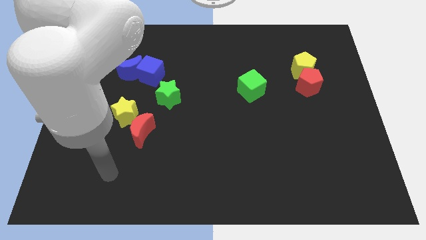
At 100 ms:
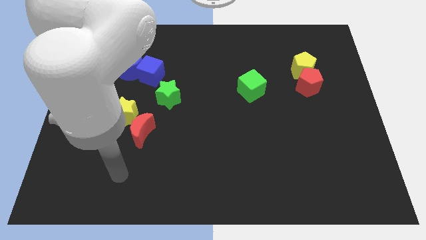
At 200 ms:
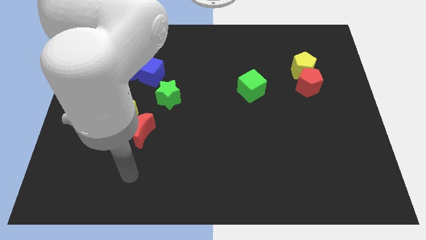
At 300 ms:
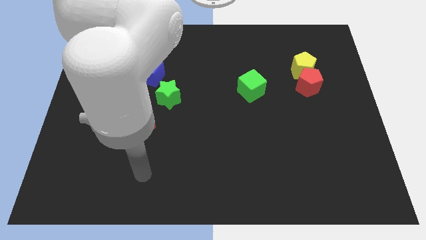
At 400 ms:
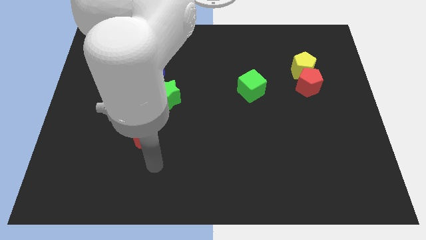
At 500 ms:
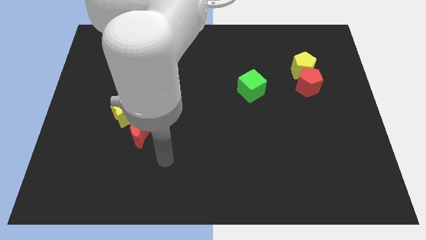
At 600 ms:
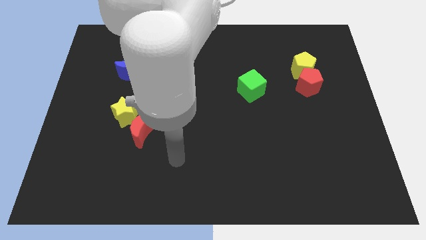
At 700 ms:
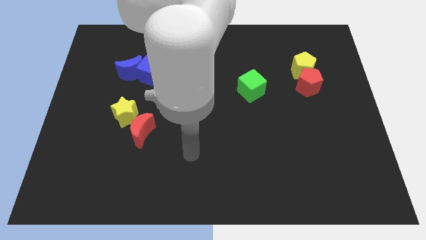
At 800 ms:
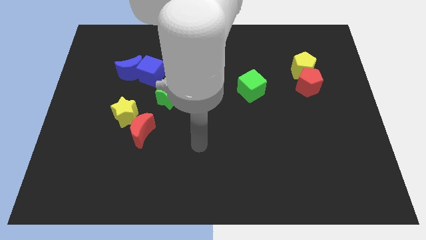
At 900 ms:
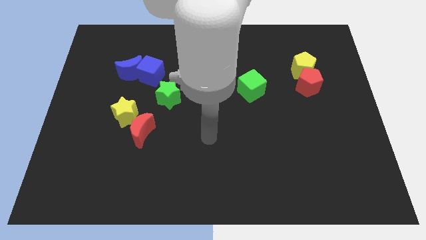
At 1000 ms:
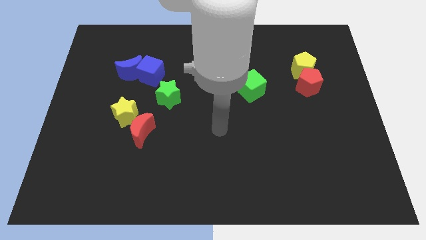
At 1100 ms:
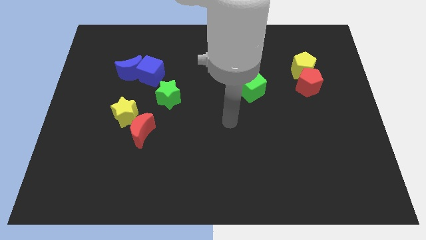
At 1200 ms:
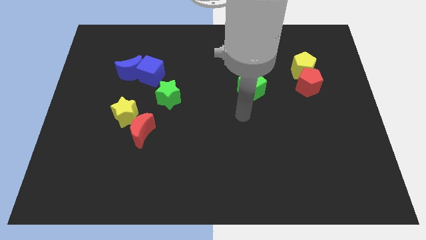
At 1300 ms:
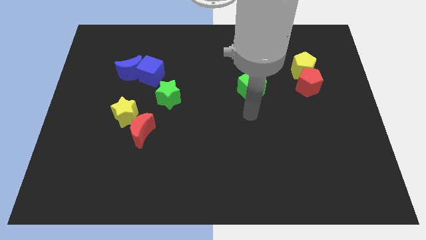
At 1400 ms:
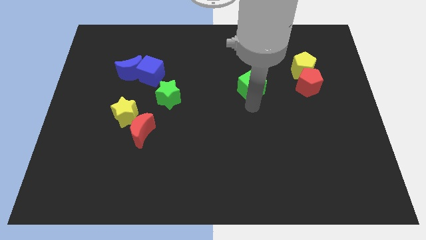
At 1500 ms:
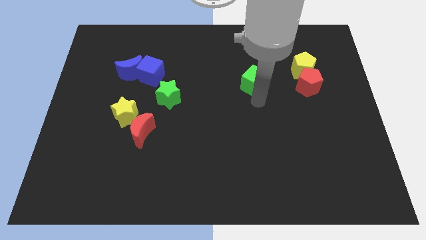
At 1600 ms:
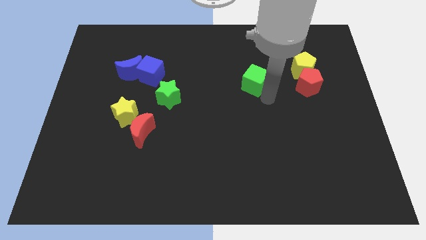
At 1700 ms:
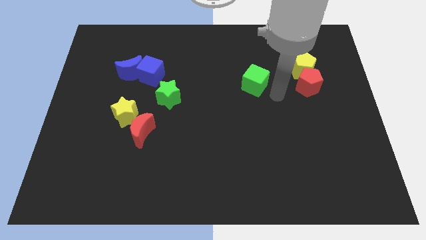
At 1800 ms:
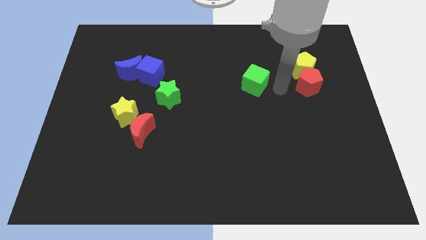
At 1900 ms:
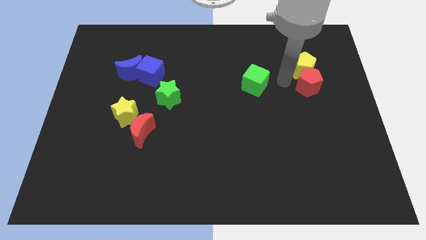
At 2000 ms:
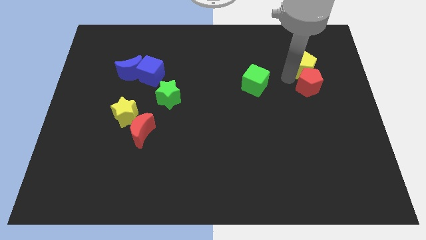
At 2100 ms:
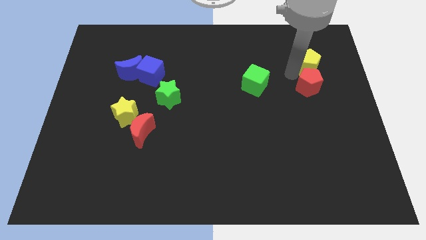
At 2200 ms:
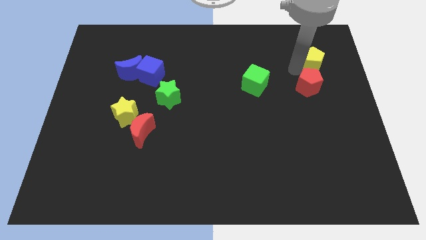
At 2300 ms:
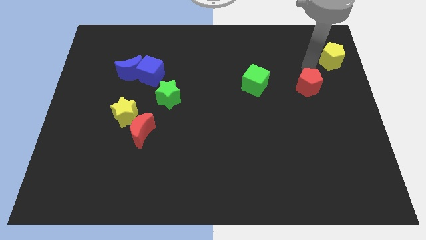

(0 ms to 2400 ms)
separate the red pentagon from the yellow pentagon

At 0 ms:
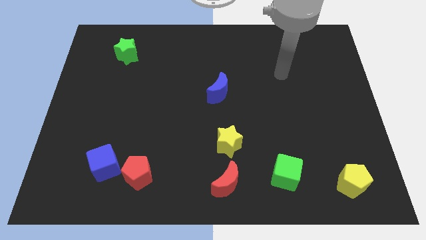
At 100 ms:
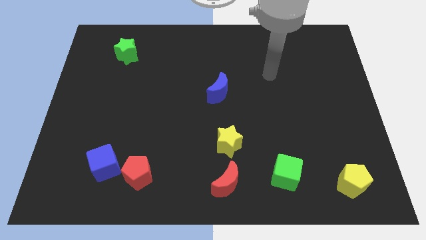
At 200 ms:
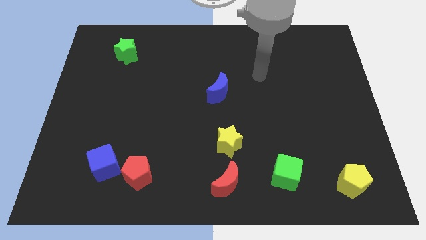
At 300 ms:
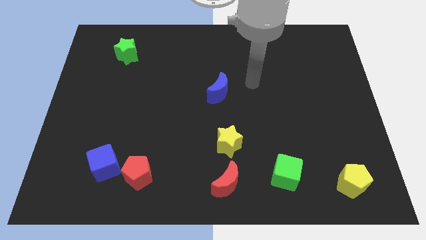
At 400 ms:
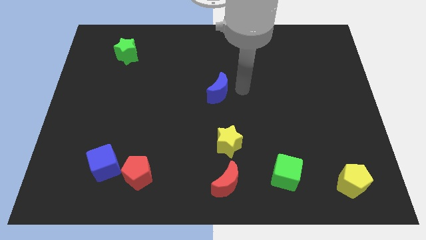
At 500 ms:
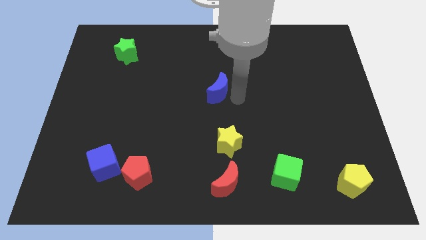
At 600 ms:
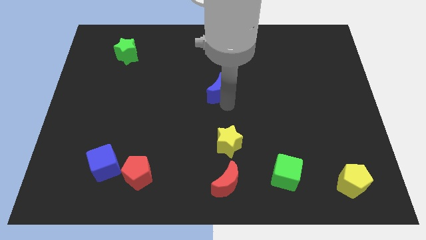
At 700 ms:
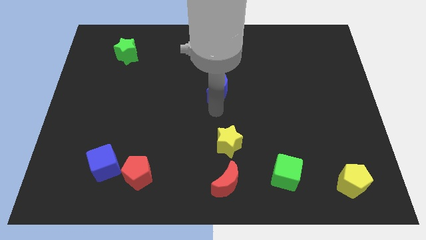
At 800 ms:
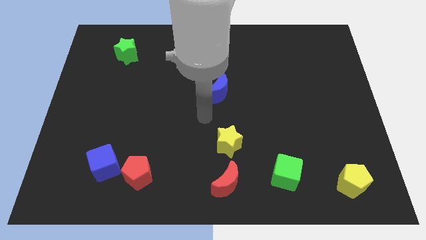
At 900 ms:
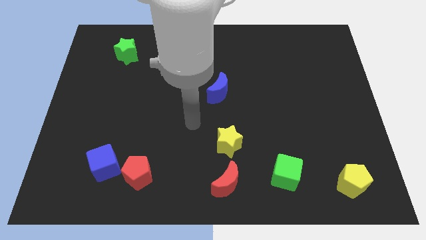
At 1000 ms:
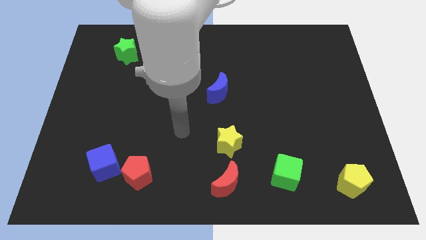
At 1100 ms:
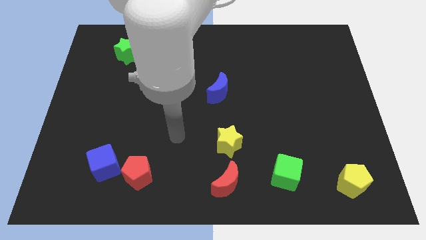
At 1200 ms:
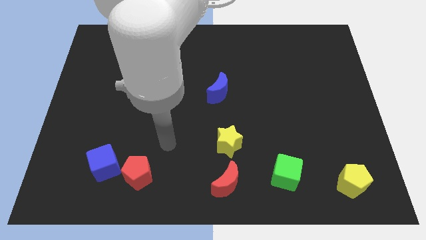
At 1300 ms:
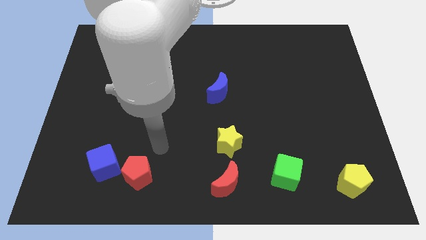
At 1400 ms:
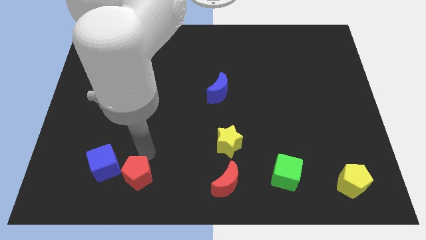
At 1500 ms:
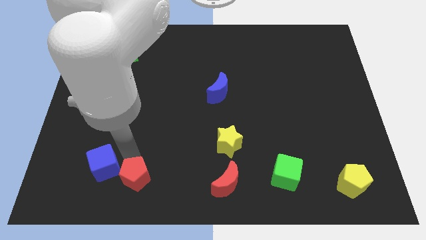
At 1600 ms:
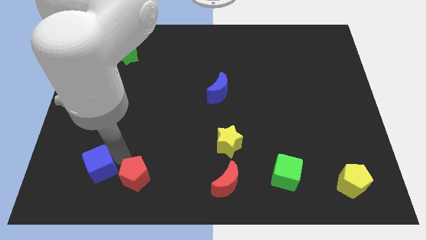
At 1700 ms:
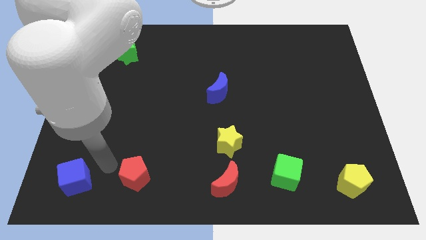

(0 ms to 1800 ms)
move the red pentagon away from the blue cube

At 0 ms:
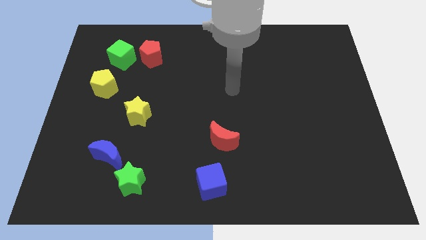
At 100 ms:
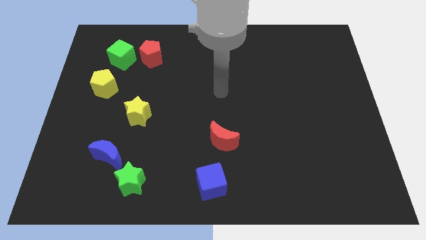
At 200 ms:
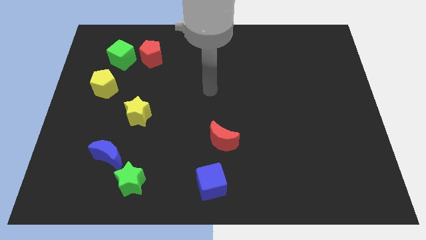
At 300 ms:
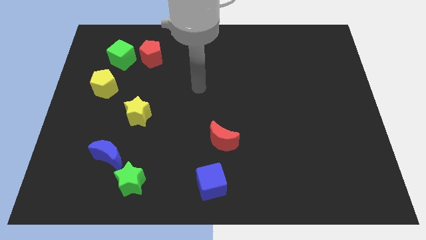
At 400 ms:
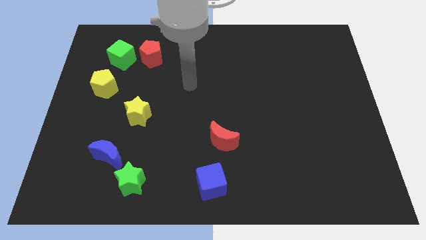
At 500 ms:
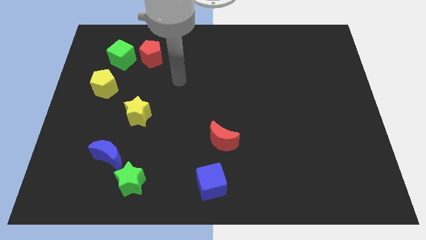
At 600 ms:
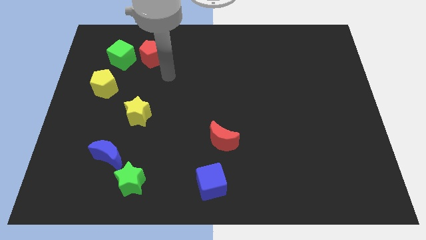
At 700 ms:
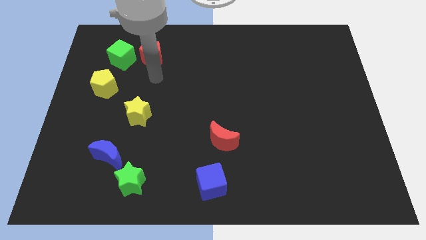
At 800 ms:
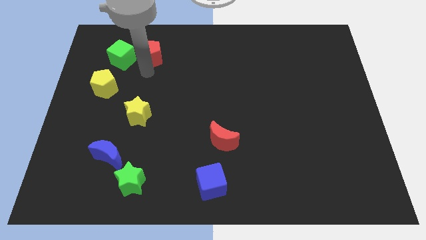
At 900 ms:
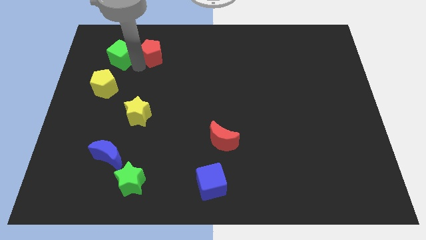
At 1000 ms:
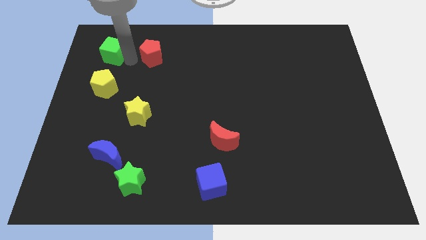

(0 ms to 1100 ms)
move the red pentagon away from the green cube

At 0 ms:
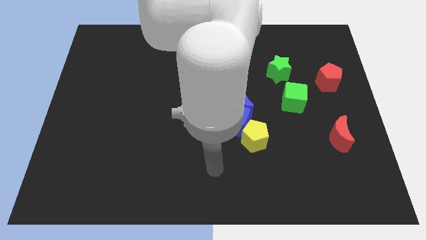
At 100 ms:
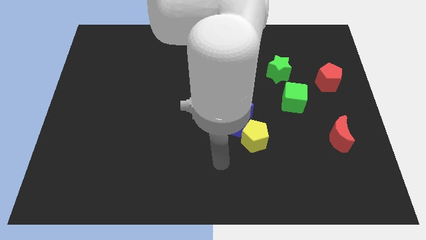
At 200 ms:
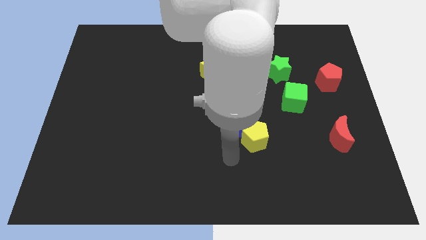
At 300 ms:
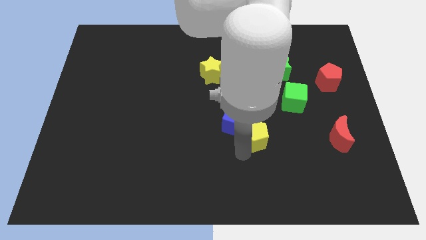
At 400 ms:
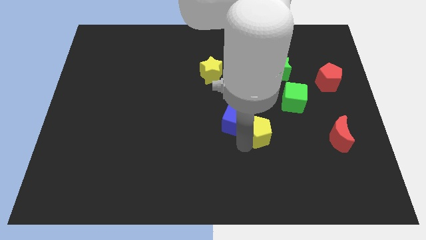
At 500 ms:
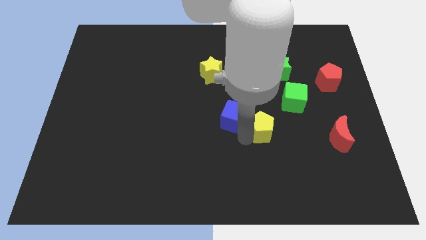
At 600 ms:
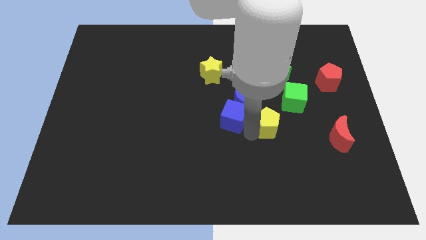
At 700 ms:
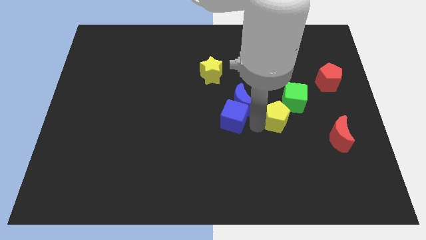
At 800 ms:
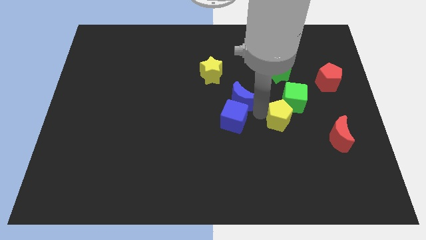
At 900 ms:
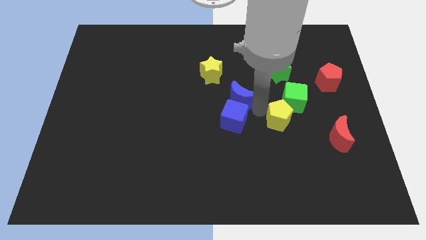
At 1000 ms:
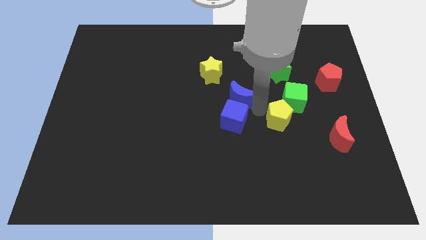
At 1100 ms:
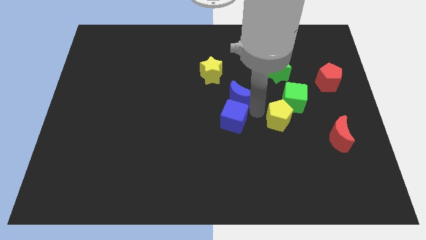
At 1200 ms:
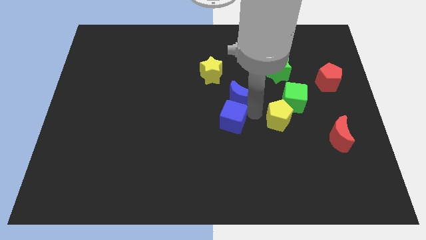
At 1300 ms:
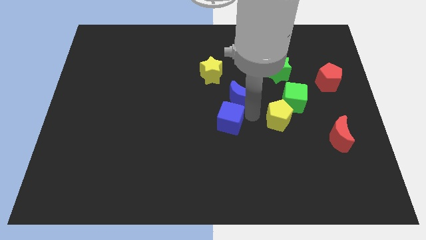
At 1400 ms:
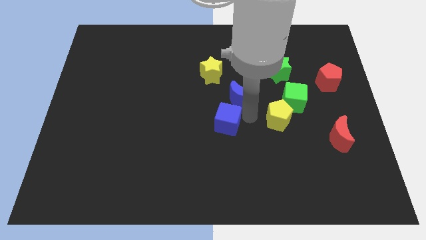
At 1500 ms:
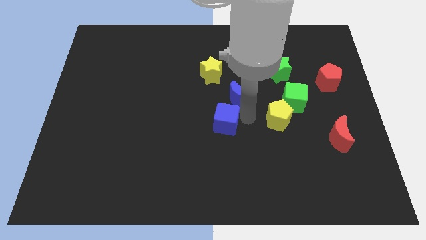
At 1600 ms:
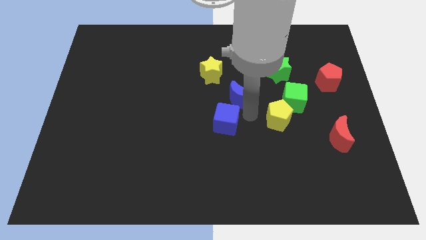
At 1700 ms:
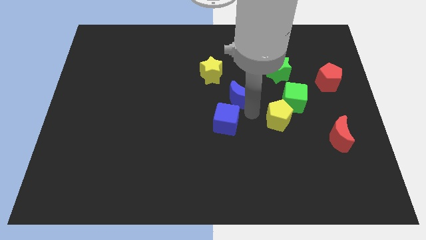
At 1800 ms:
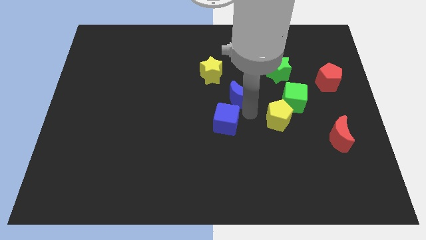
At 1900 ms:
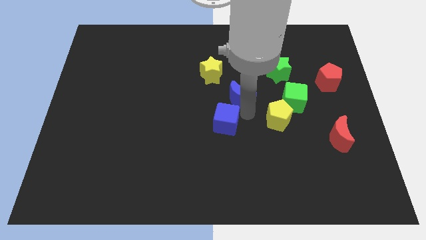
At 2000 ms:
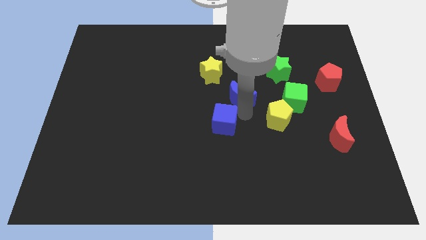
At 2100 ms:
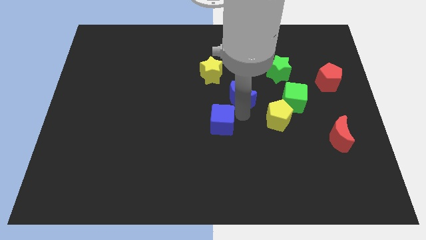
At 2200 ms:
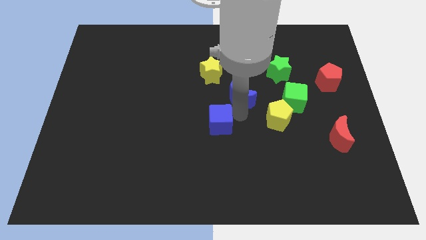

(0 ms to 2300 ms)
move the blue cube away from the blue moon and yellow pentagon

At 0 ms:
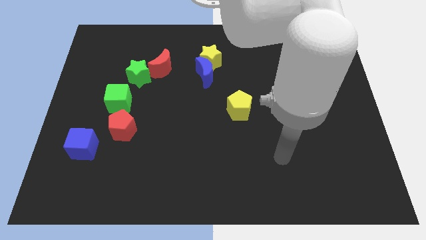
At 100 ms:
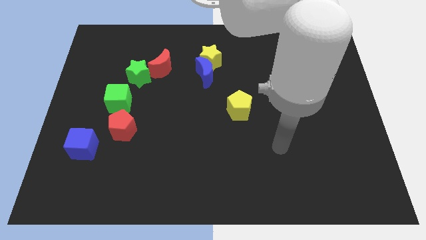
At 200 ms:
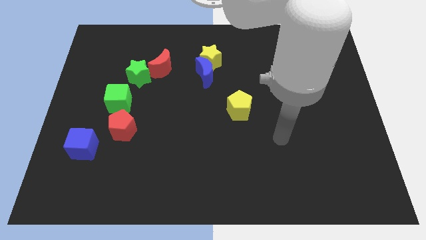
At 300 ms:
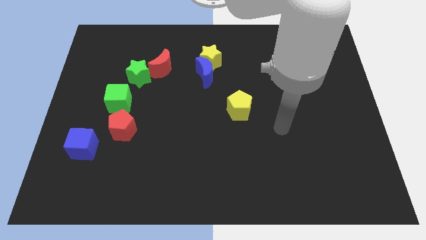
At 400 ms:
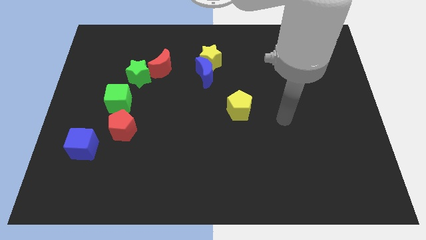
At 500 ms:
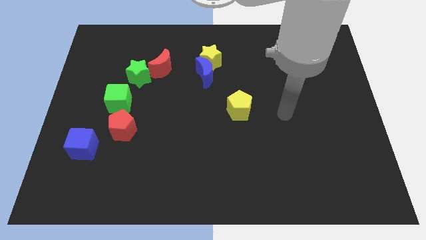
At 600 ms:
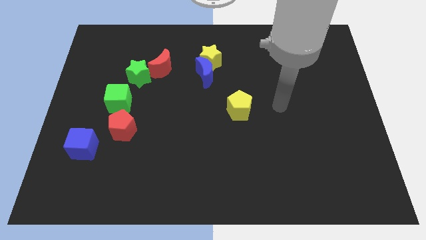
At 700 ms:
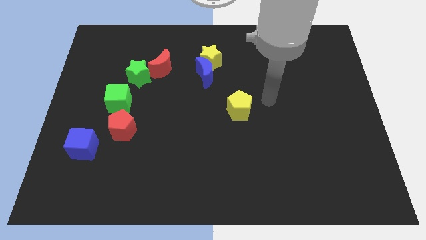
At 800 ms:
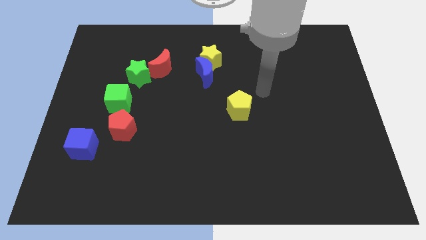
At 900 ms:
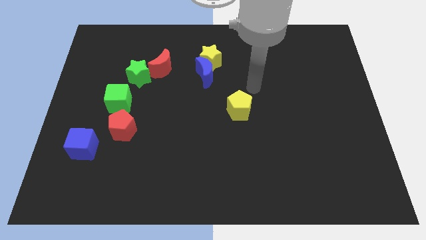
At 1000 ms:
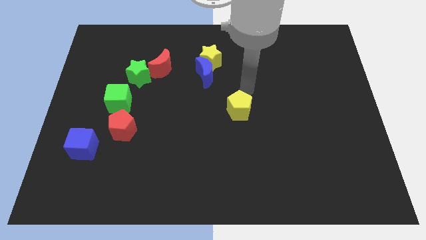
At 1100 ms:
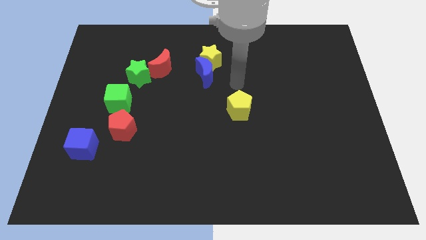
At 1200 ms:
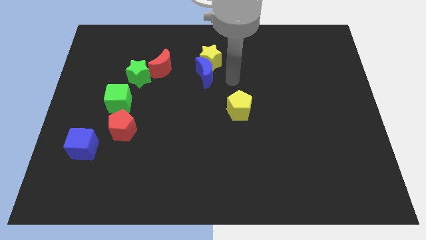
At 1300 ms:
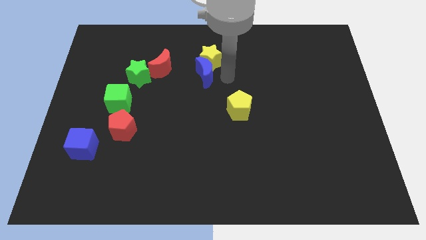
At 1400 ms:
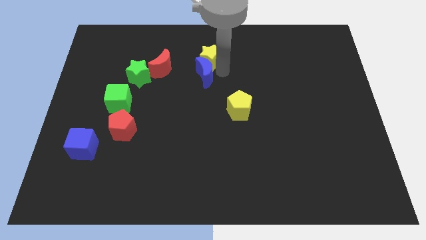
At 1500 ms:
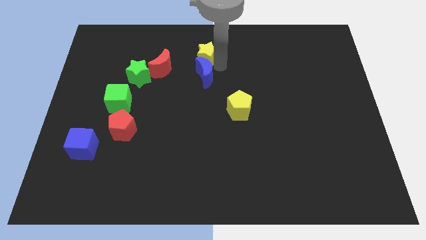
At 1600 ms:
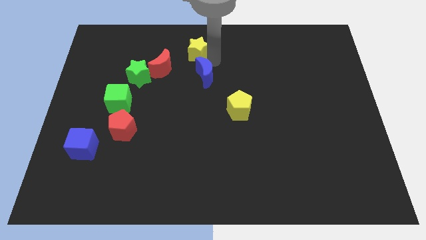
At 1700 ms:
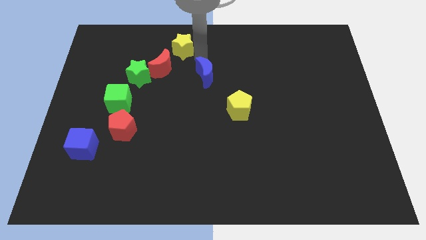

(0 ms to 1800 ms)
move the blue moon away from the yellow star
